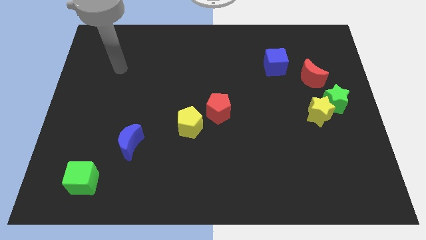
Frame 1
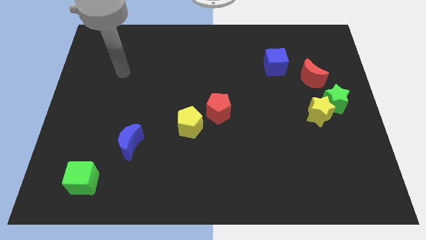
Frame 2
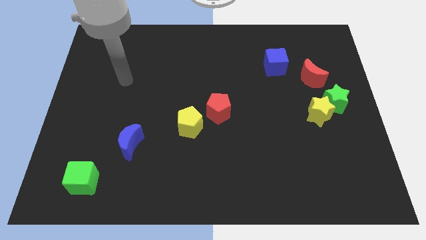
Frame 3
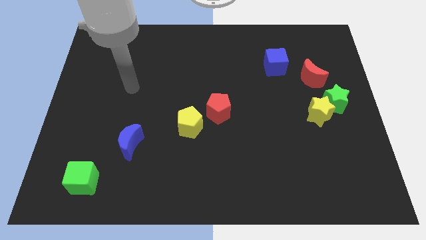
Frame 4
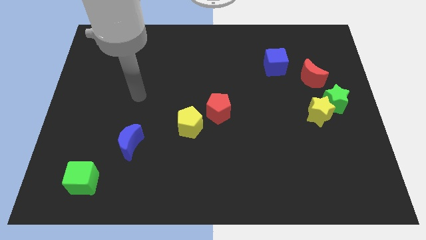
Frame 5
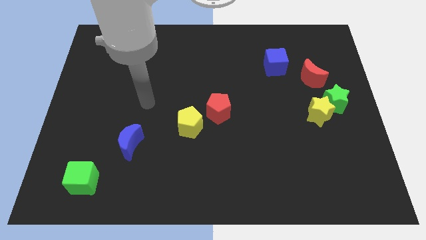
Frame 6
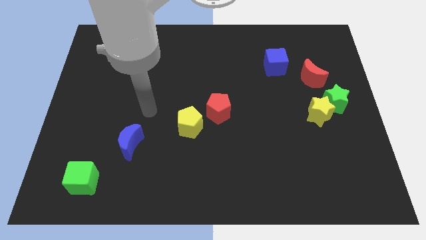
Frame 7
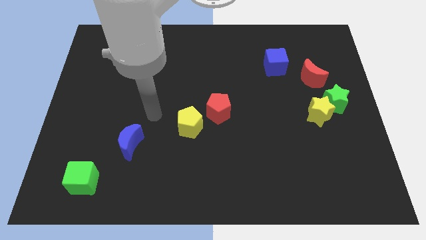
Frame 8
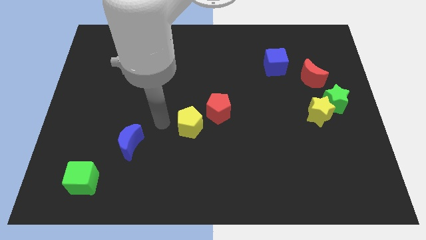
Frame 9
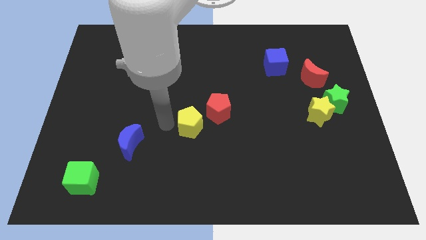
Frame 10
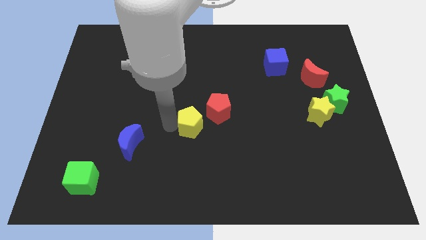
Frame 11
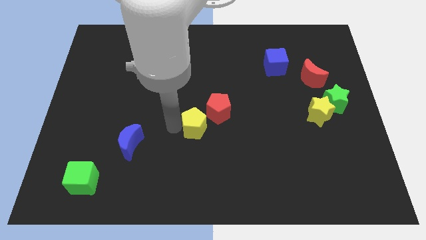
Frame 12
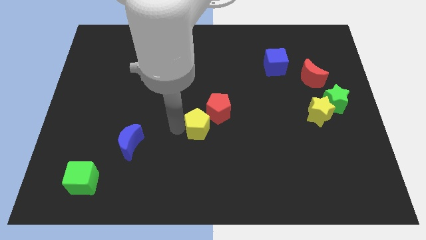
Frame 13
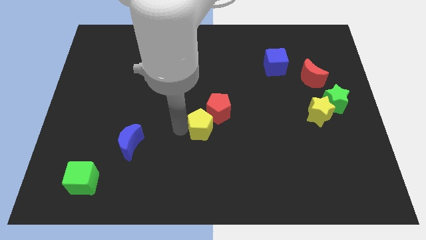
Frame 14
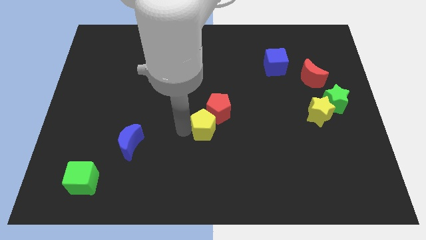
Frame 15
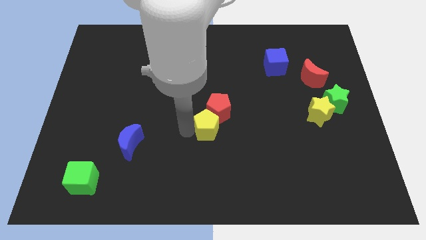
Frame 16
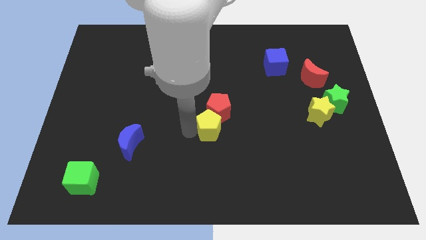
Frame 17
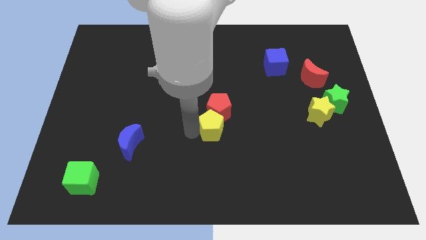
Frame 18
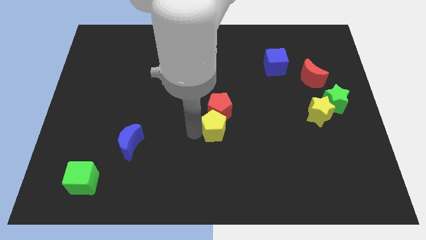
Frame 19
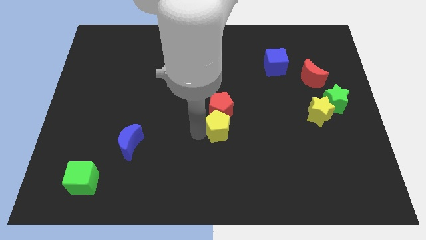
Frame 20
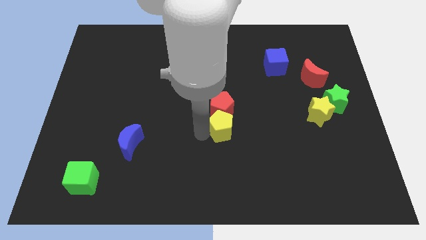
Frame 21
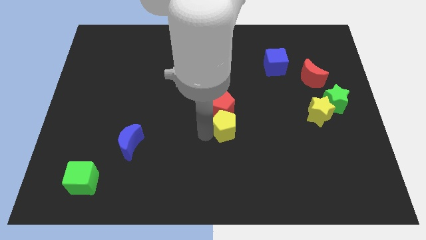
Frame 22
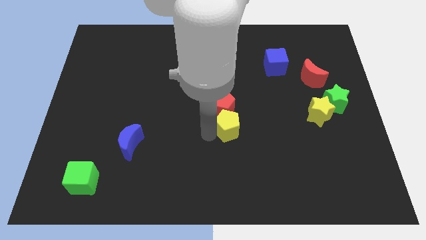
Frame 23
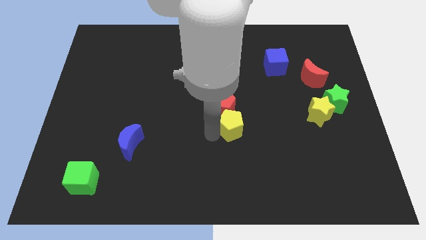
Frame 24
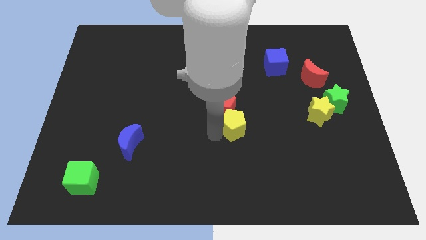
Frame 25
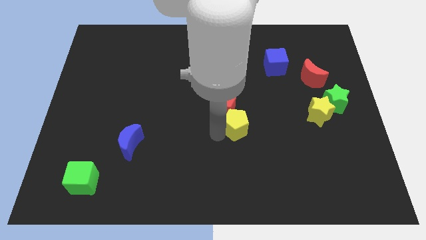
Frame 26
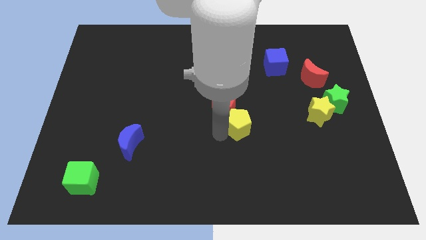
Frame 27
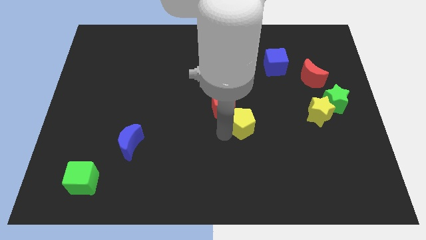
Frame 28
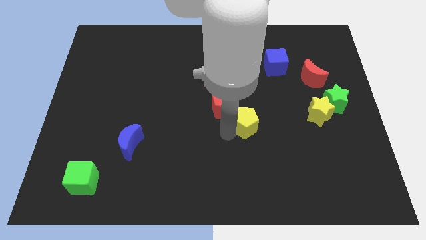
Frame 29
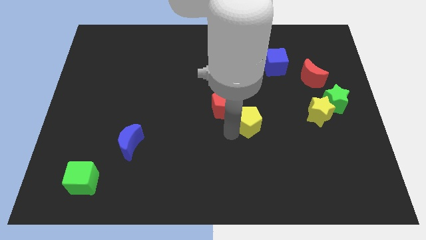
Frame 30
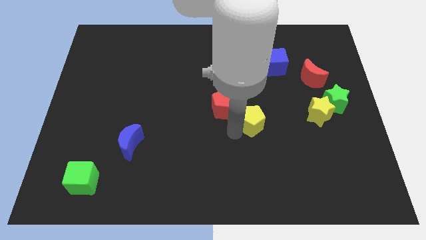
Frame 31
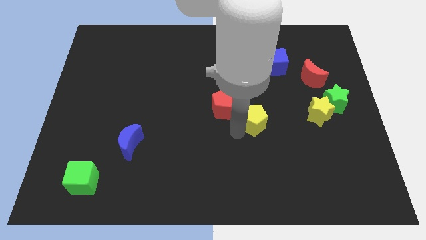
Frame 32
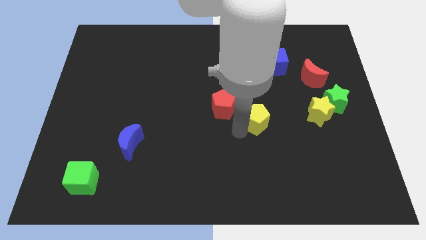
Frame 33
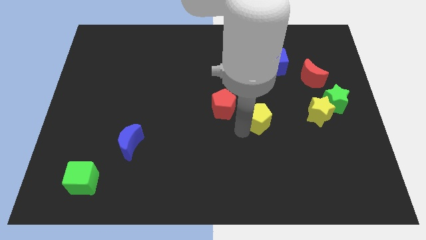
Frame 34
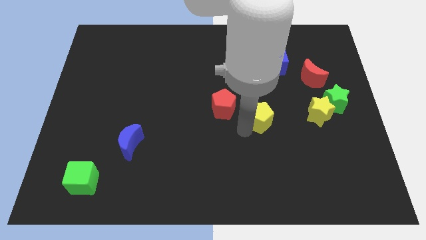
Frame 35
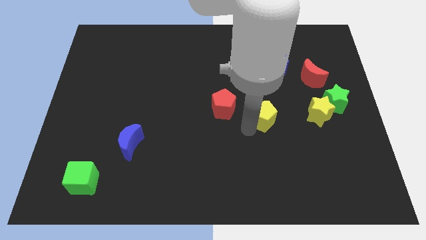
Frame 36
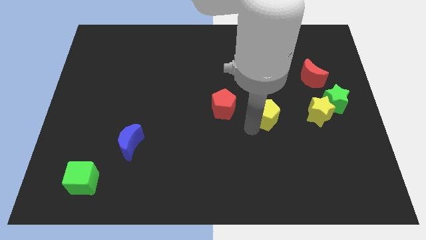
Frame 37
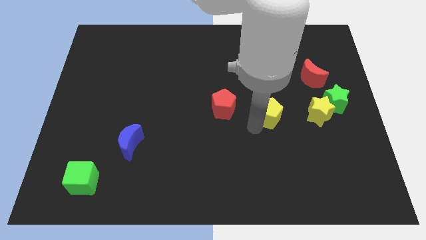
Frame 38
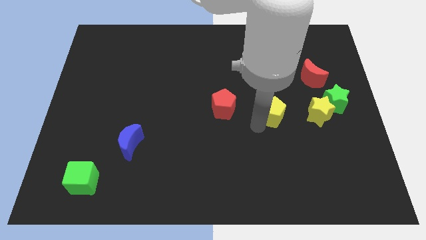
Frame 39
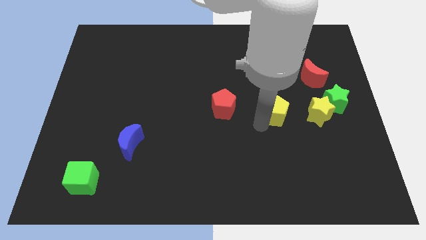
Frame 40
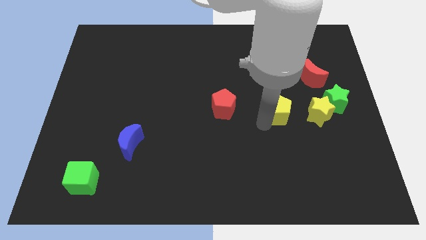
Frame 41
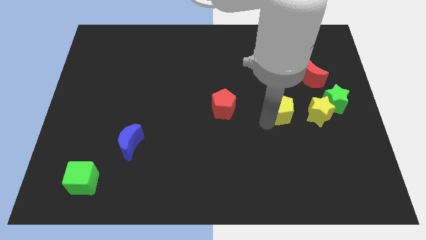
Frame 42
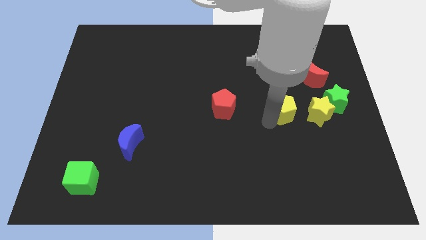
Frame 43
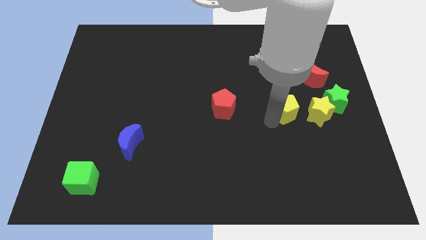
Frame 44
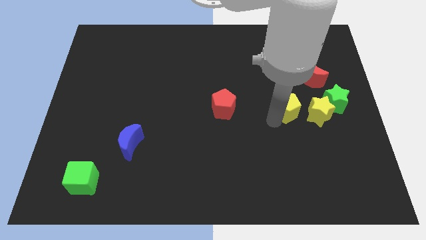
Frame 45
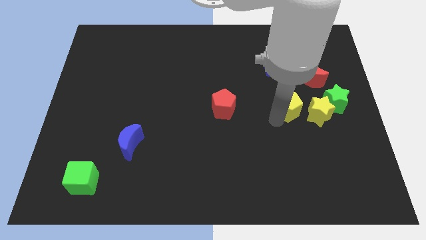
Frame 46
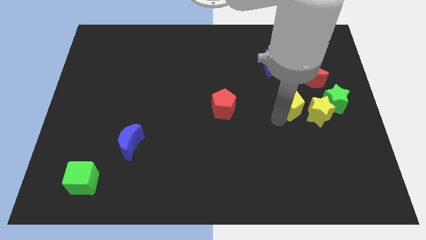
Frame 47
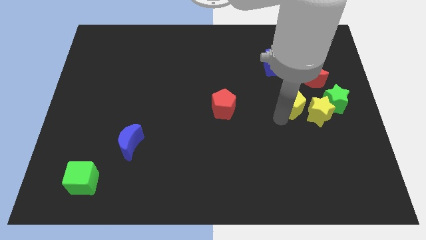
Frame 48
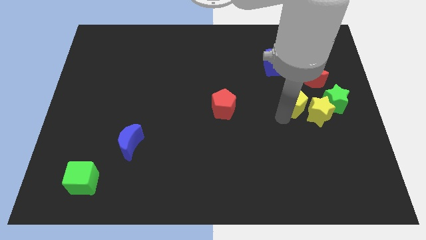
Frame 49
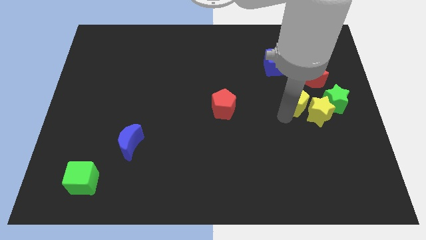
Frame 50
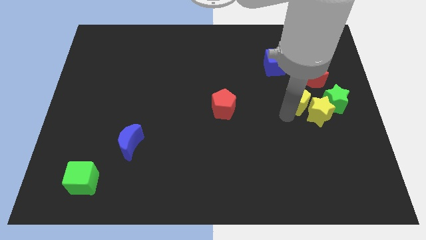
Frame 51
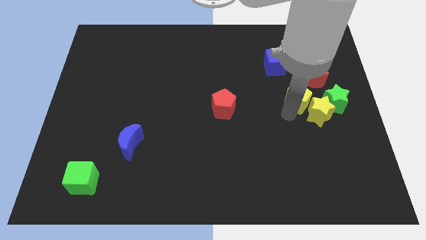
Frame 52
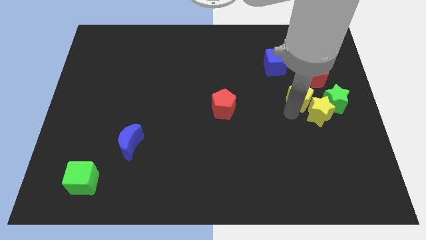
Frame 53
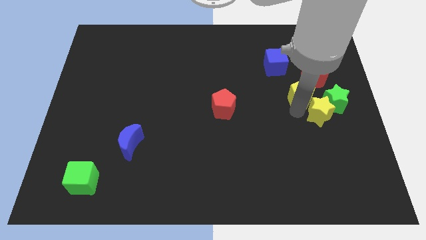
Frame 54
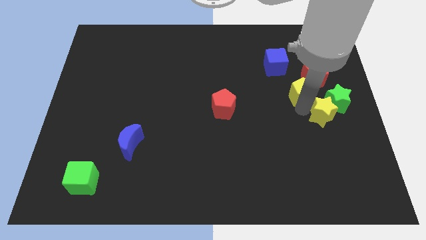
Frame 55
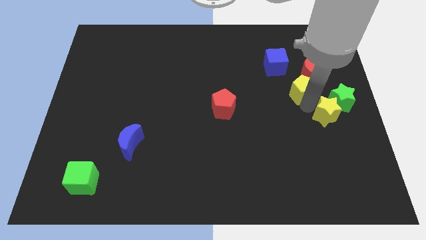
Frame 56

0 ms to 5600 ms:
push the yellow pentagon towards the red moon

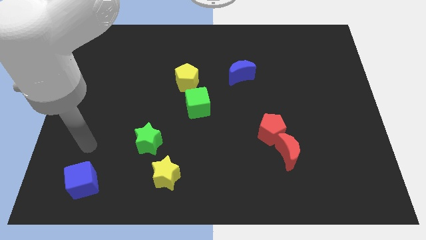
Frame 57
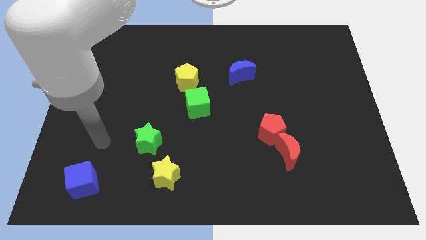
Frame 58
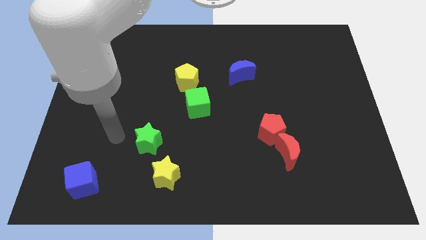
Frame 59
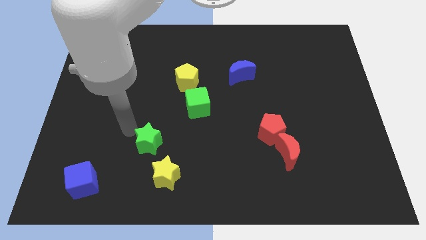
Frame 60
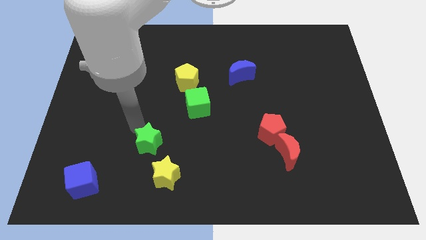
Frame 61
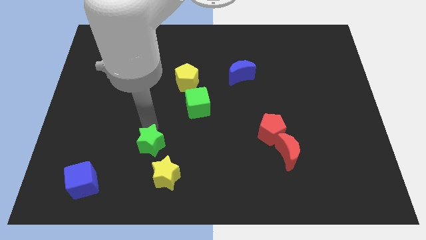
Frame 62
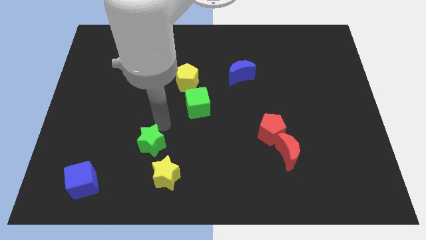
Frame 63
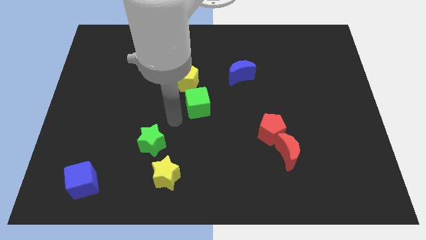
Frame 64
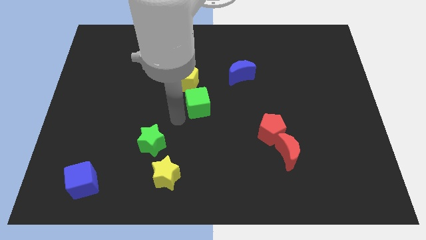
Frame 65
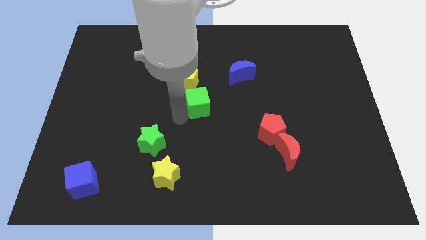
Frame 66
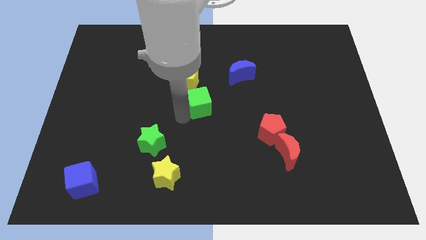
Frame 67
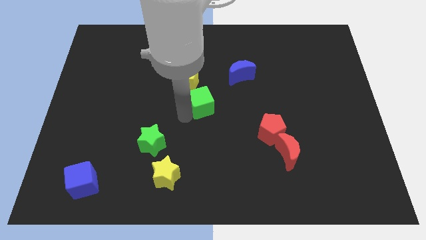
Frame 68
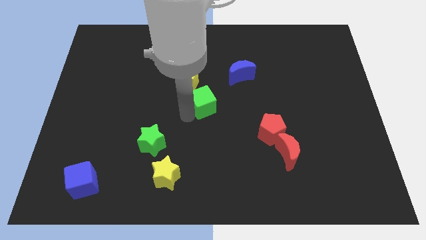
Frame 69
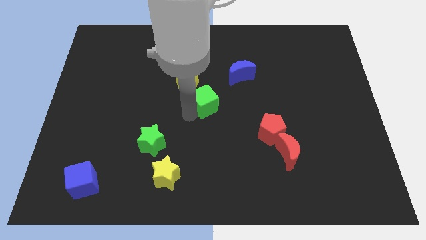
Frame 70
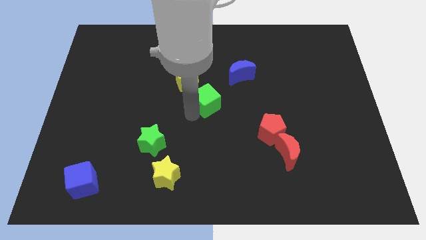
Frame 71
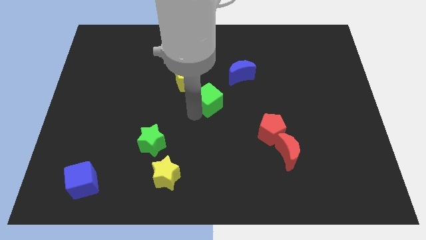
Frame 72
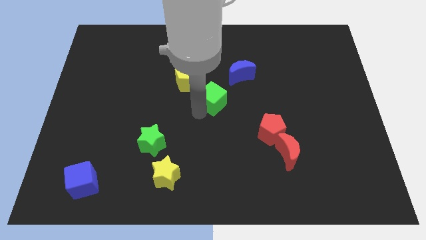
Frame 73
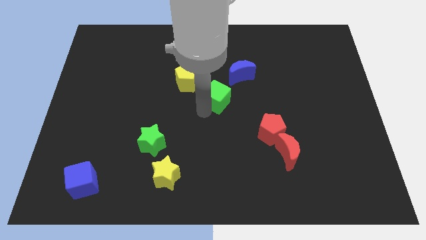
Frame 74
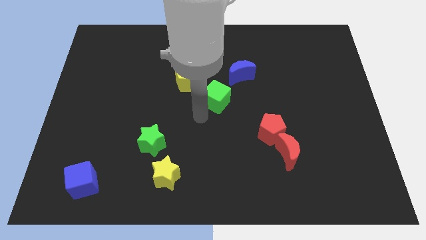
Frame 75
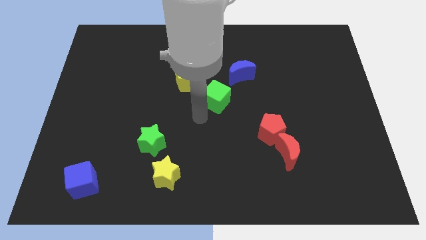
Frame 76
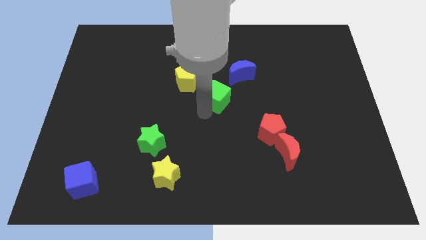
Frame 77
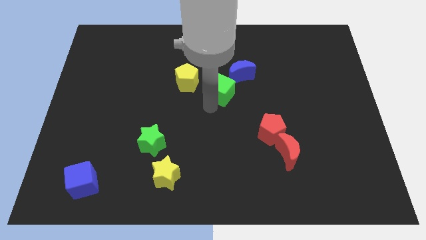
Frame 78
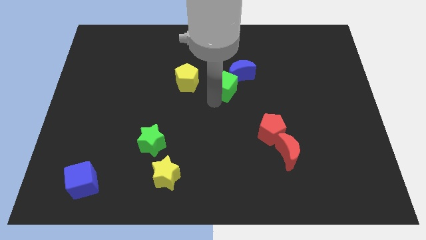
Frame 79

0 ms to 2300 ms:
push the green cube to the blue moon
